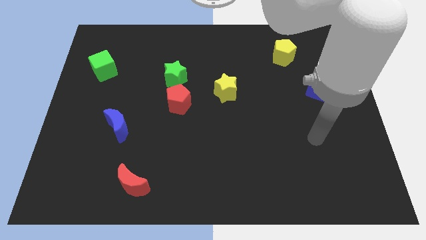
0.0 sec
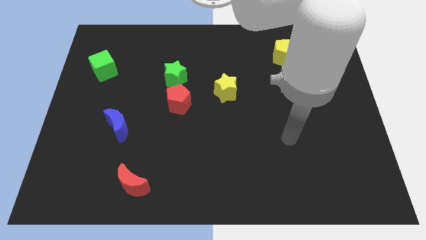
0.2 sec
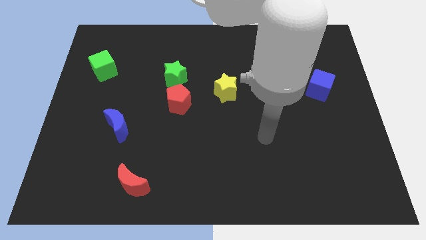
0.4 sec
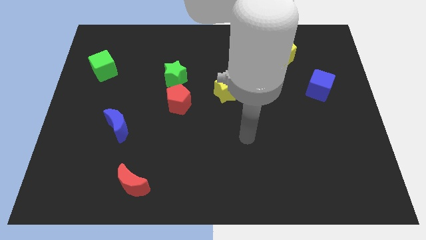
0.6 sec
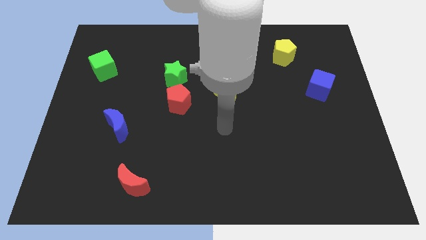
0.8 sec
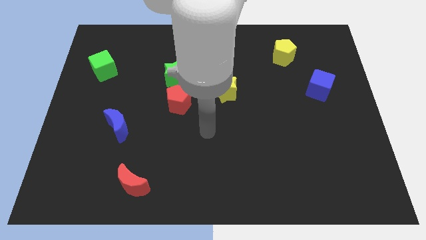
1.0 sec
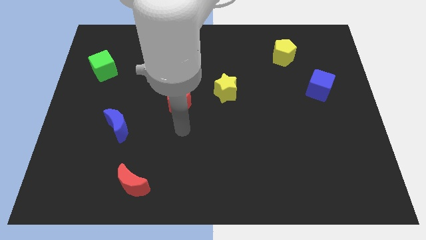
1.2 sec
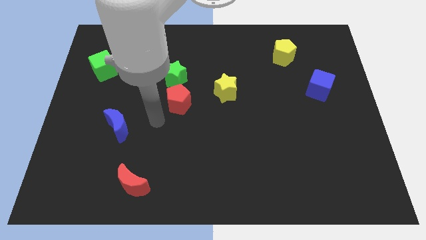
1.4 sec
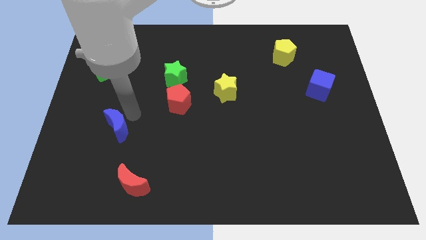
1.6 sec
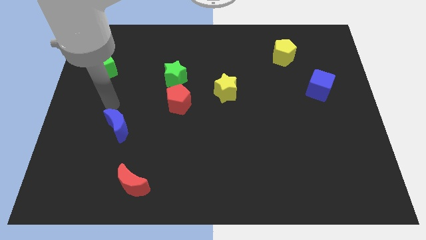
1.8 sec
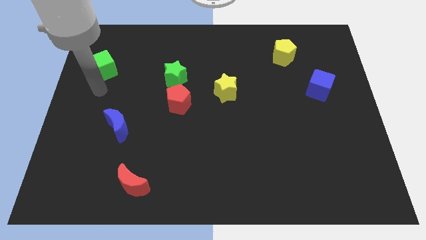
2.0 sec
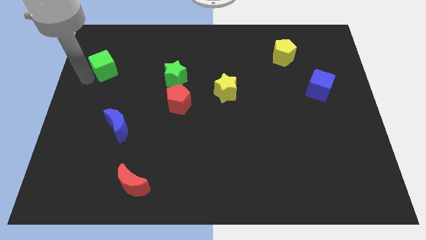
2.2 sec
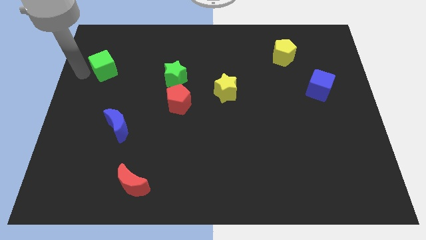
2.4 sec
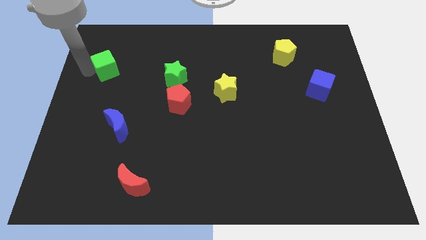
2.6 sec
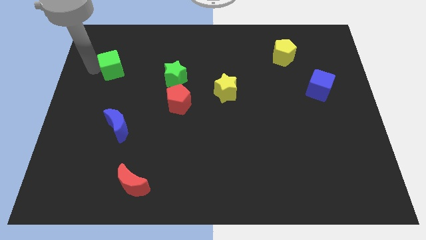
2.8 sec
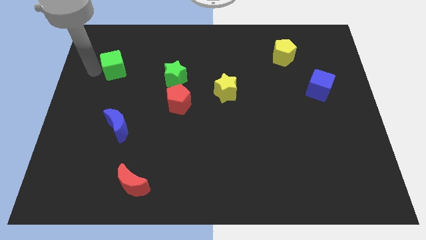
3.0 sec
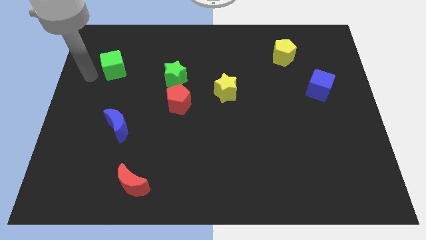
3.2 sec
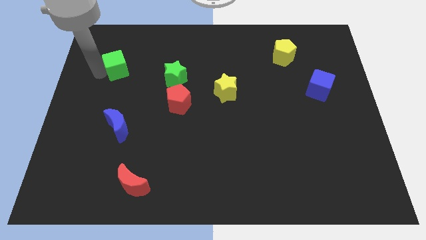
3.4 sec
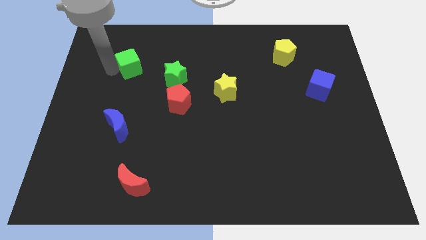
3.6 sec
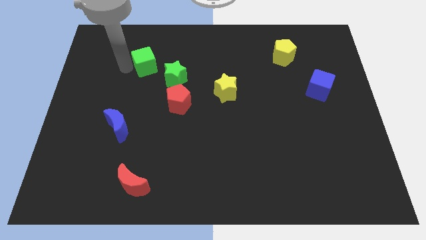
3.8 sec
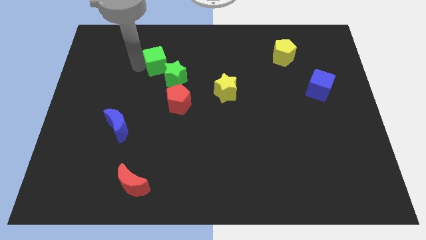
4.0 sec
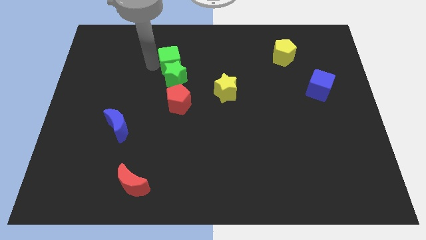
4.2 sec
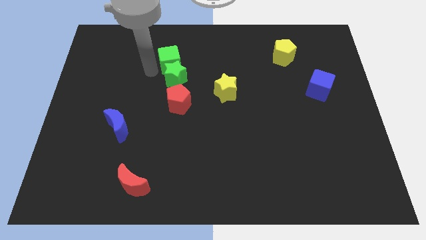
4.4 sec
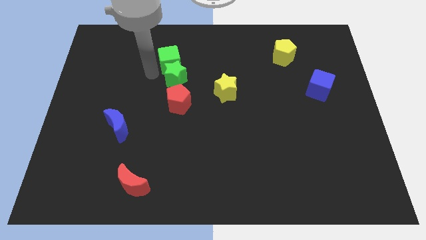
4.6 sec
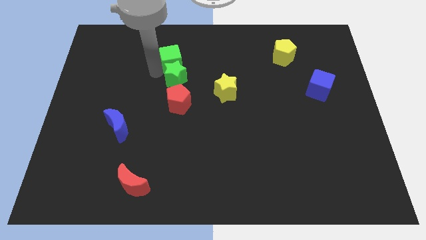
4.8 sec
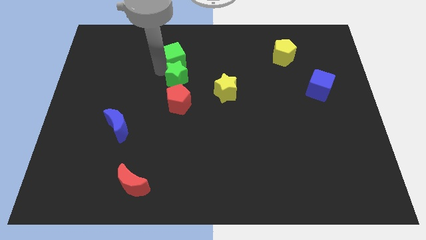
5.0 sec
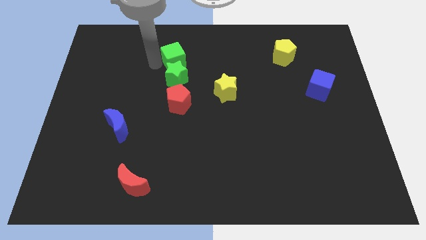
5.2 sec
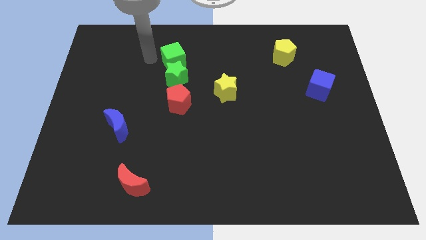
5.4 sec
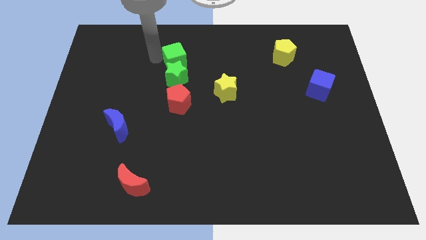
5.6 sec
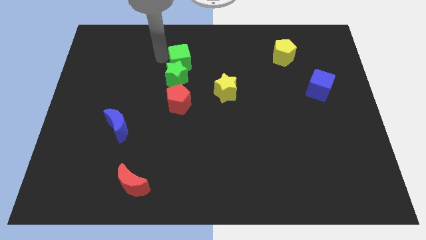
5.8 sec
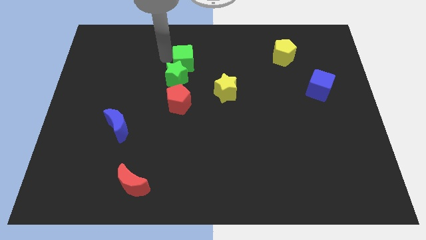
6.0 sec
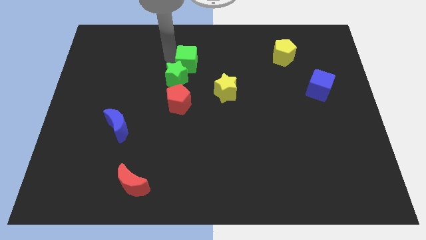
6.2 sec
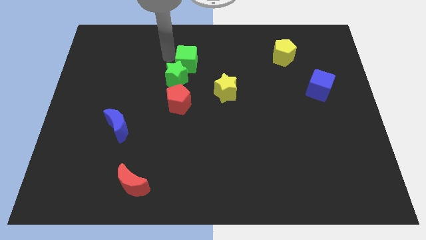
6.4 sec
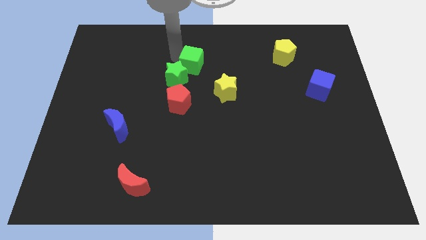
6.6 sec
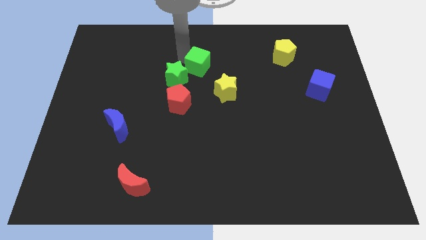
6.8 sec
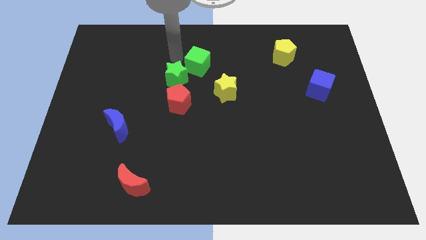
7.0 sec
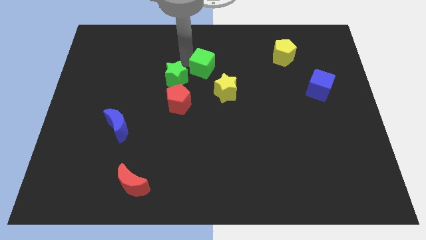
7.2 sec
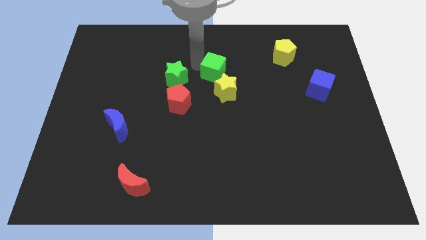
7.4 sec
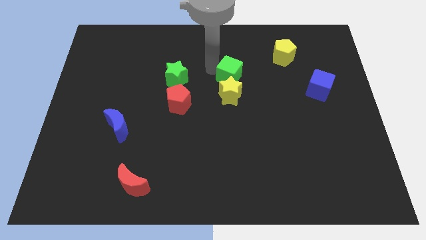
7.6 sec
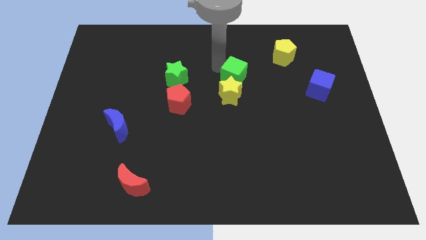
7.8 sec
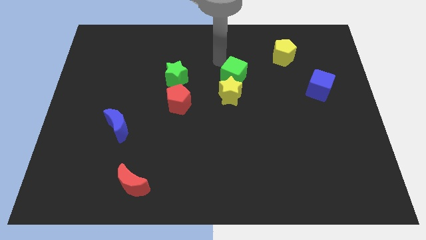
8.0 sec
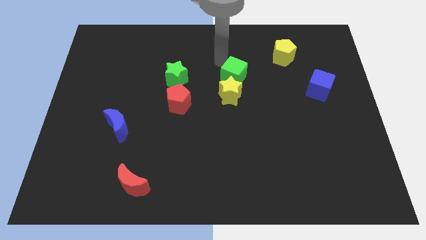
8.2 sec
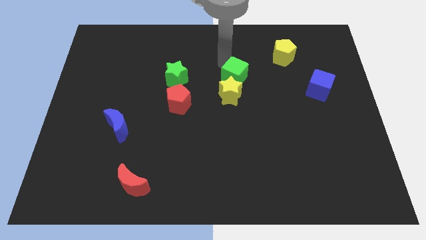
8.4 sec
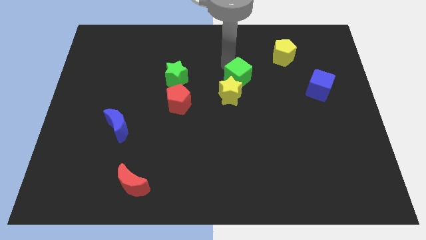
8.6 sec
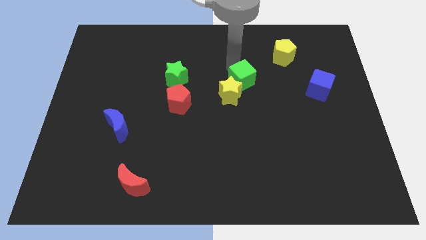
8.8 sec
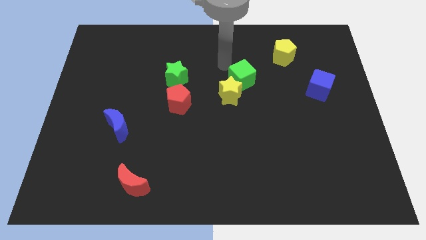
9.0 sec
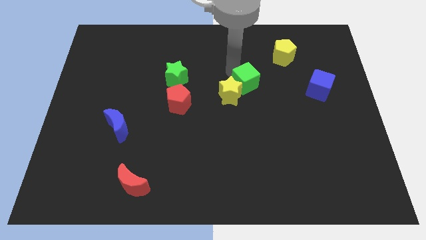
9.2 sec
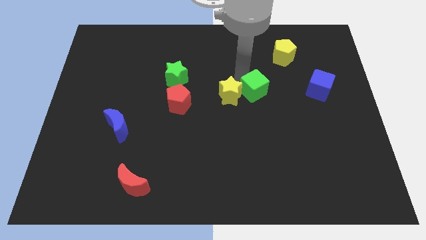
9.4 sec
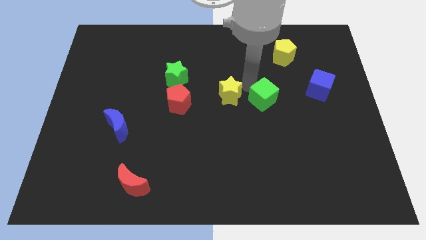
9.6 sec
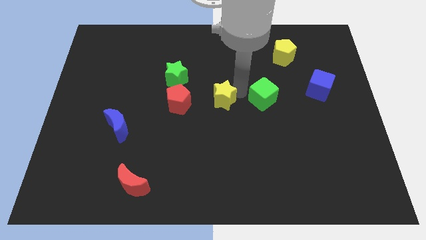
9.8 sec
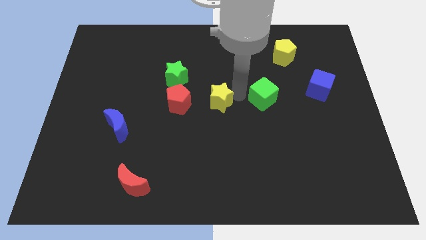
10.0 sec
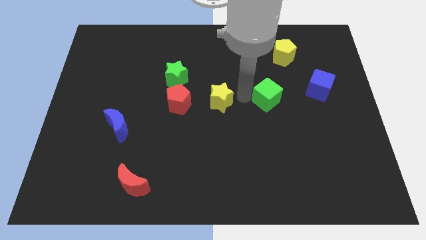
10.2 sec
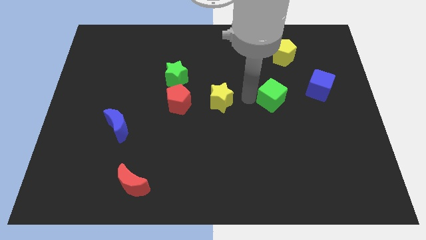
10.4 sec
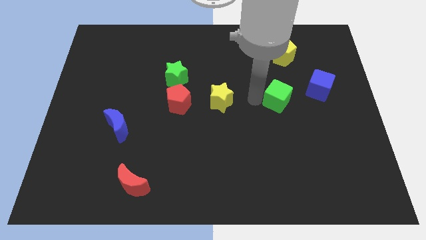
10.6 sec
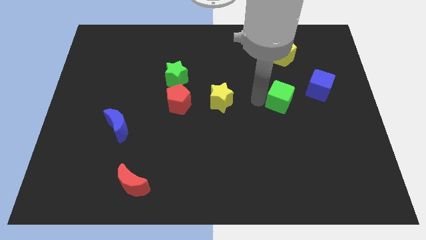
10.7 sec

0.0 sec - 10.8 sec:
put the green cube to the bottom left side of the blue cube

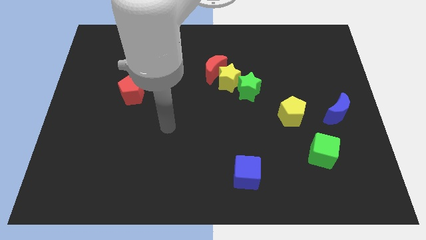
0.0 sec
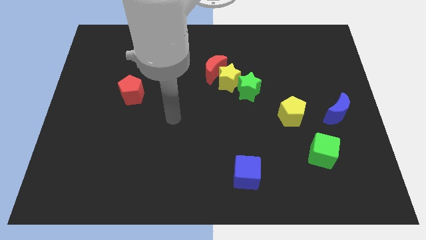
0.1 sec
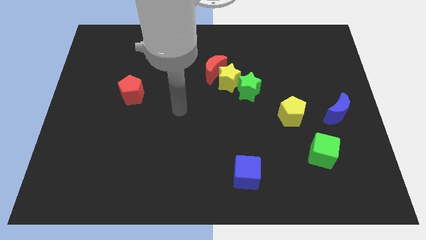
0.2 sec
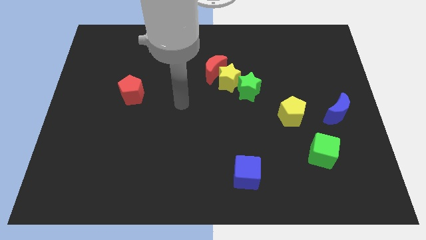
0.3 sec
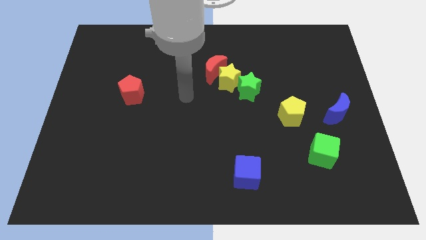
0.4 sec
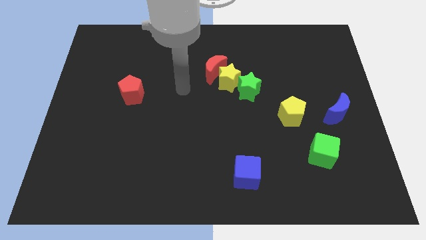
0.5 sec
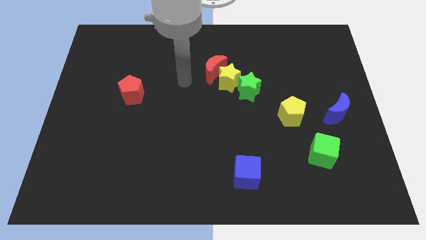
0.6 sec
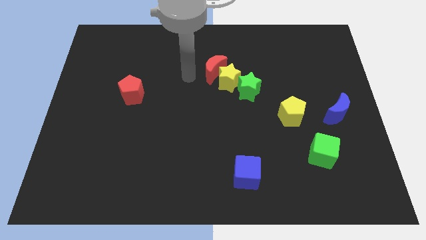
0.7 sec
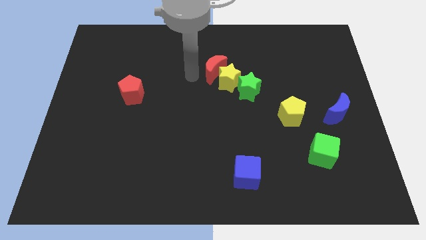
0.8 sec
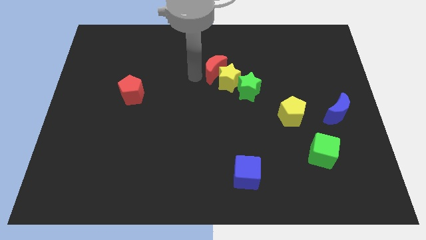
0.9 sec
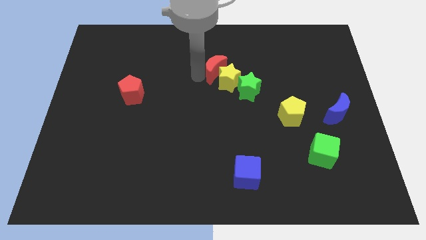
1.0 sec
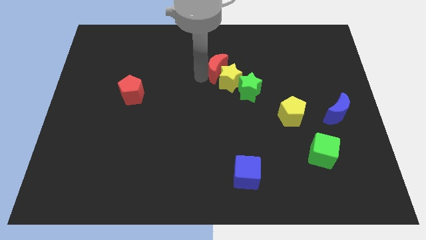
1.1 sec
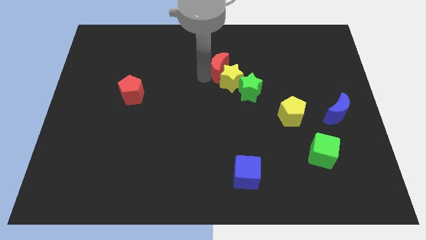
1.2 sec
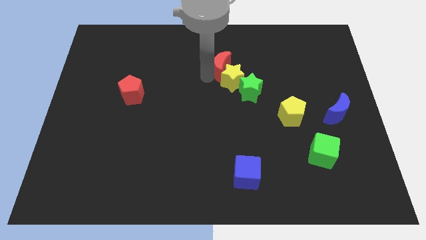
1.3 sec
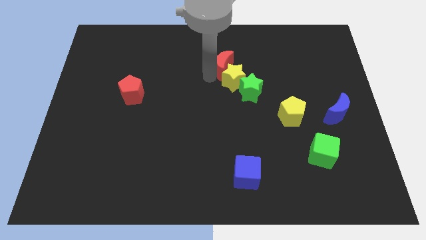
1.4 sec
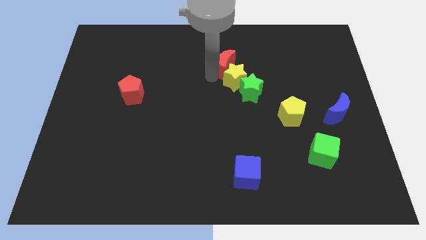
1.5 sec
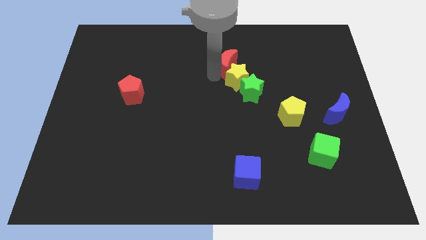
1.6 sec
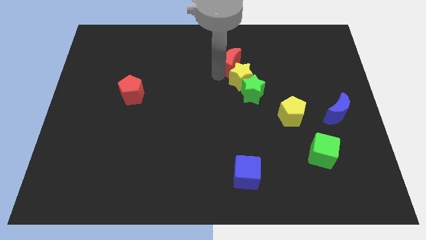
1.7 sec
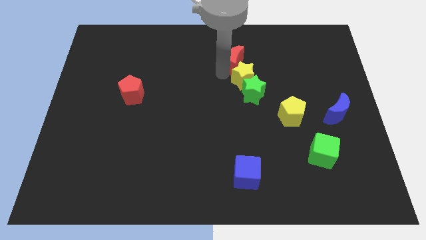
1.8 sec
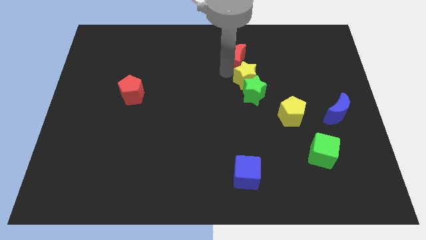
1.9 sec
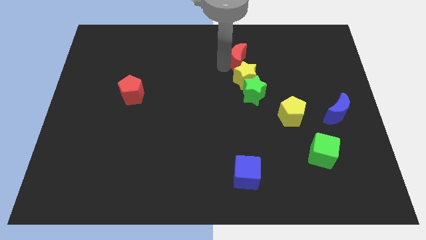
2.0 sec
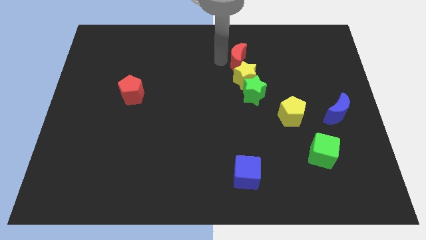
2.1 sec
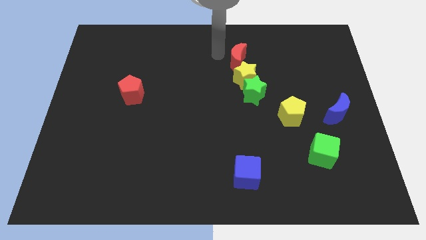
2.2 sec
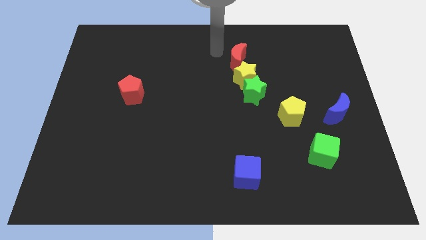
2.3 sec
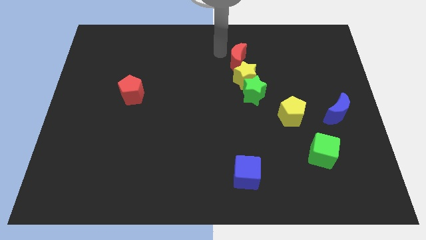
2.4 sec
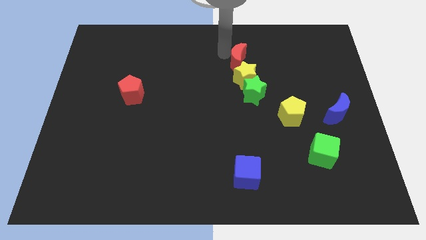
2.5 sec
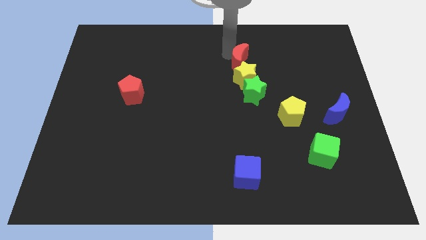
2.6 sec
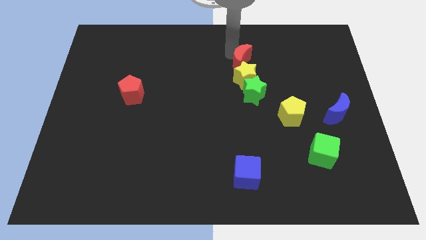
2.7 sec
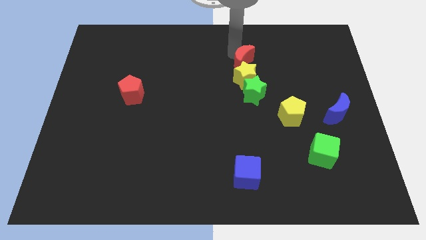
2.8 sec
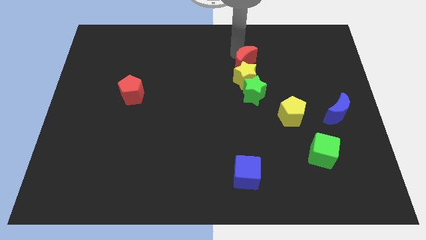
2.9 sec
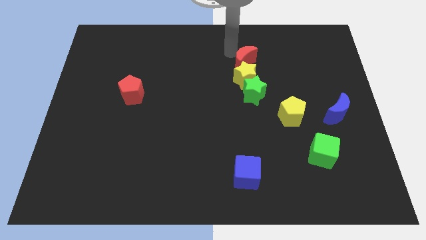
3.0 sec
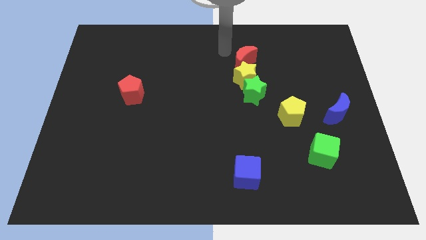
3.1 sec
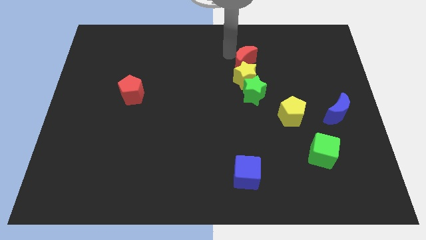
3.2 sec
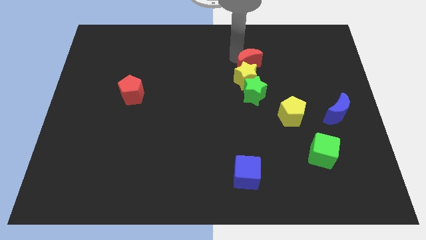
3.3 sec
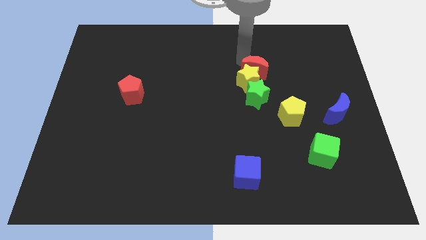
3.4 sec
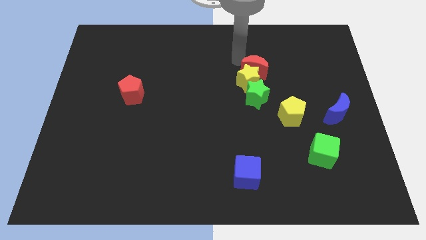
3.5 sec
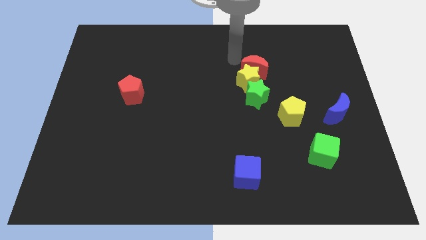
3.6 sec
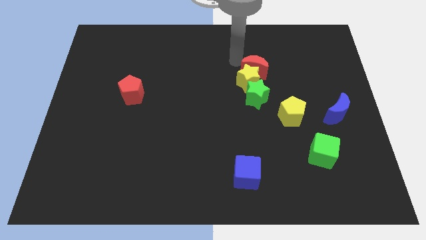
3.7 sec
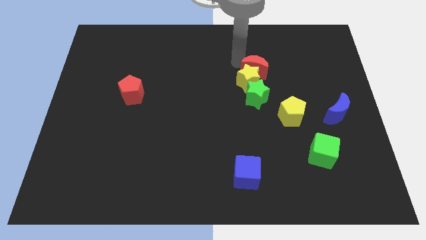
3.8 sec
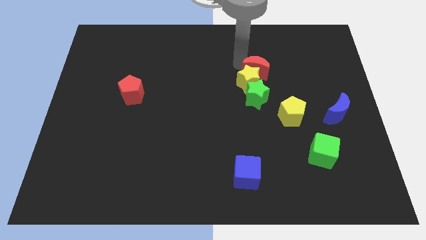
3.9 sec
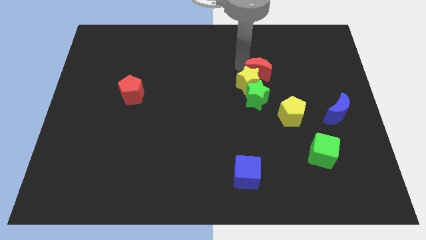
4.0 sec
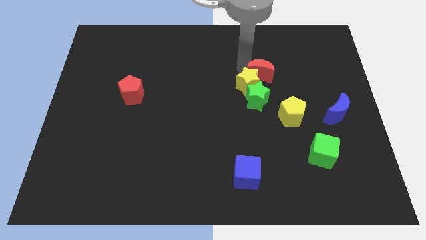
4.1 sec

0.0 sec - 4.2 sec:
move the red moon to the top right of the green star
